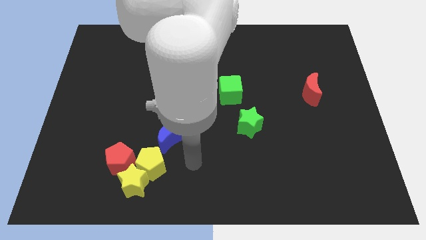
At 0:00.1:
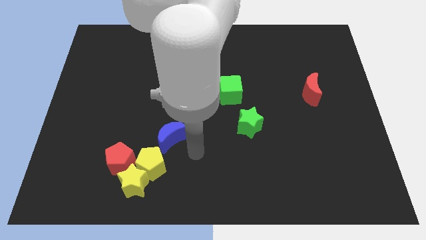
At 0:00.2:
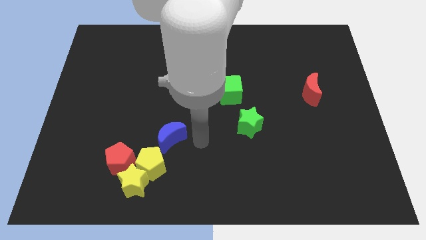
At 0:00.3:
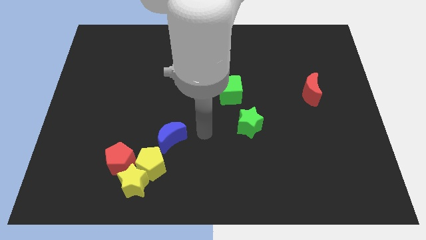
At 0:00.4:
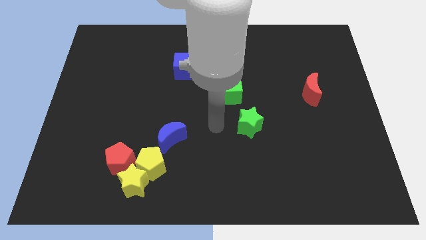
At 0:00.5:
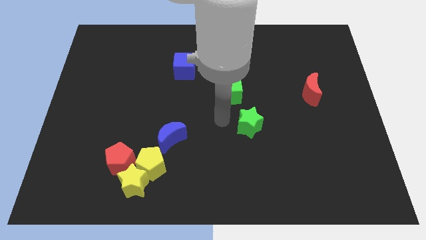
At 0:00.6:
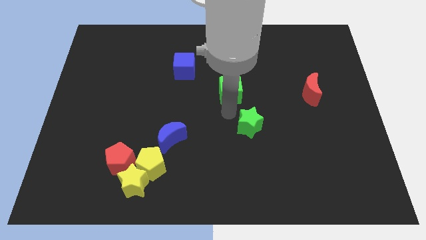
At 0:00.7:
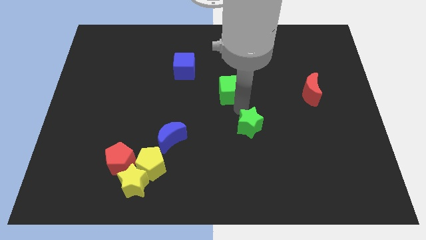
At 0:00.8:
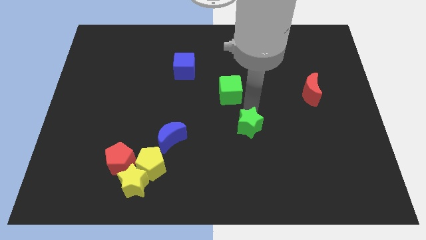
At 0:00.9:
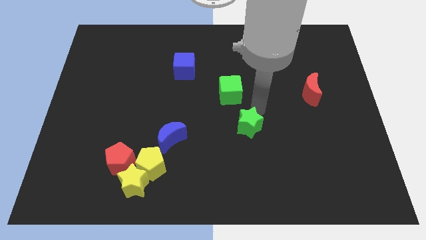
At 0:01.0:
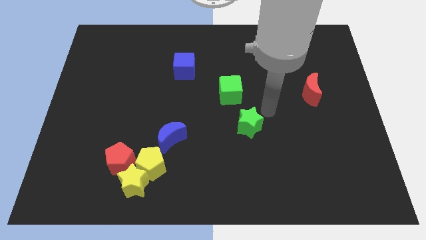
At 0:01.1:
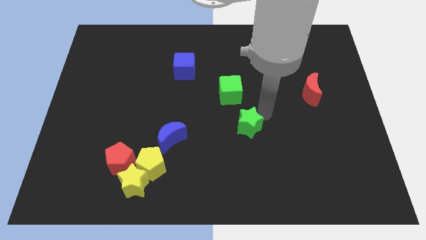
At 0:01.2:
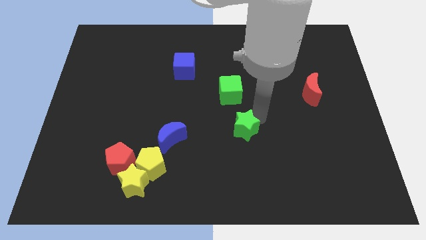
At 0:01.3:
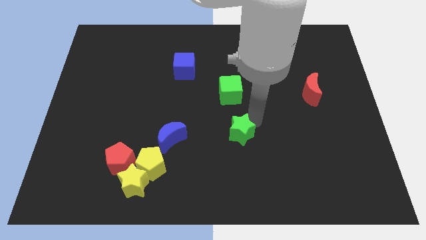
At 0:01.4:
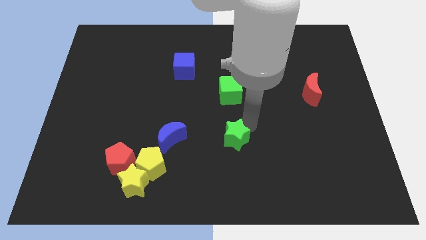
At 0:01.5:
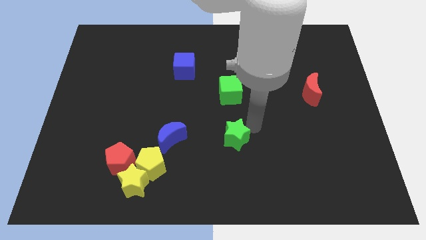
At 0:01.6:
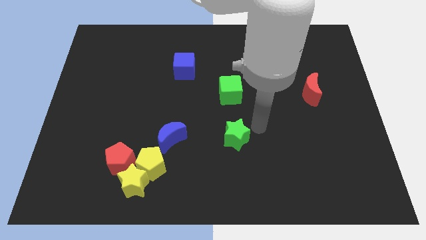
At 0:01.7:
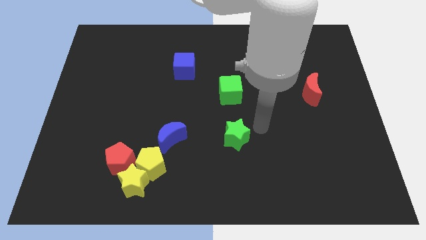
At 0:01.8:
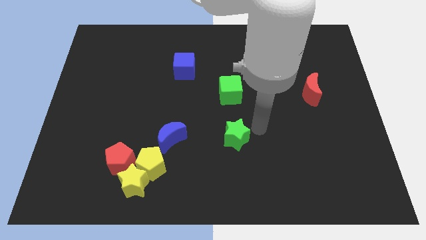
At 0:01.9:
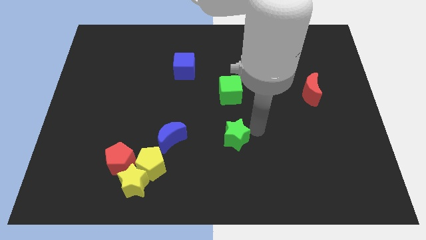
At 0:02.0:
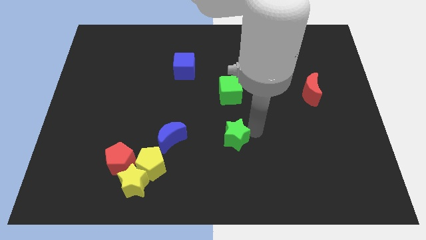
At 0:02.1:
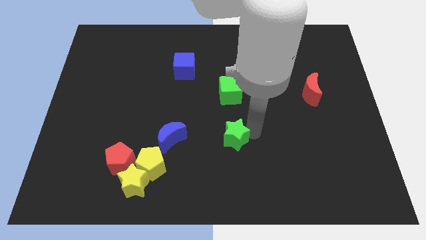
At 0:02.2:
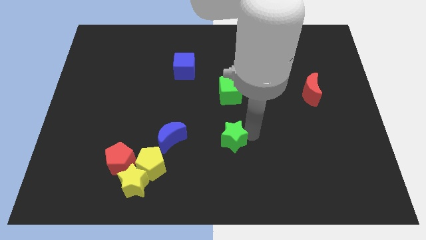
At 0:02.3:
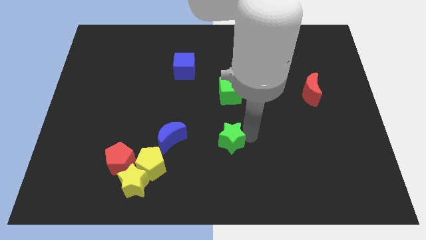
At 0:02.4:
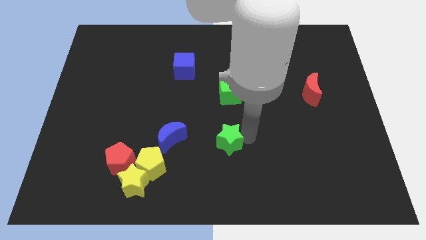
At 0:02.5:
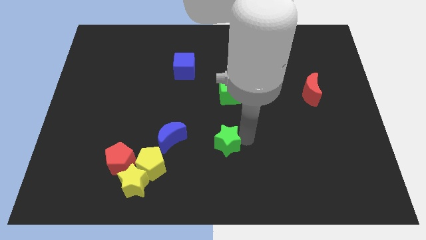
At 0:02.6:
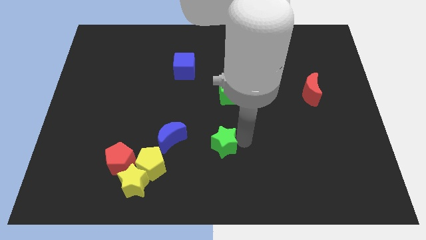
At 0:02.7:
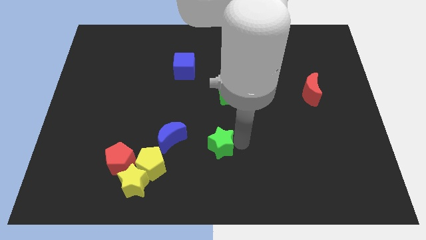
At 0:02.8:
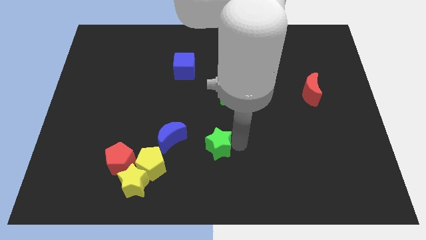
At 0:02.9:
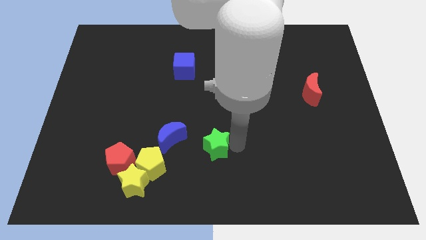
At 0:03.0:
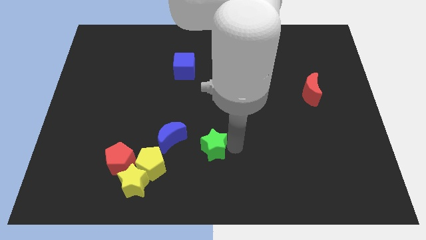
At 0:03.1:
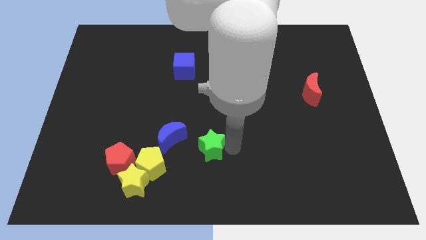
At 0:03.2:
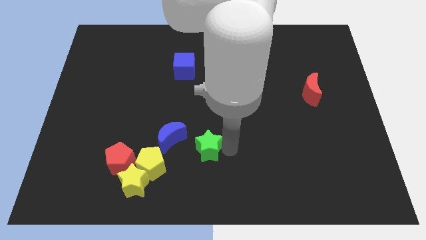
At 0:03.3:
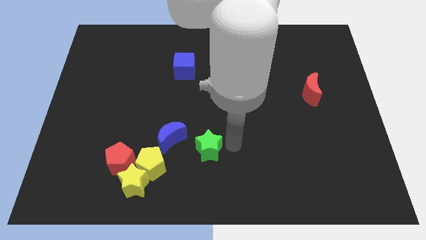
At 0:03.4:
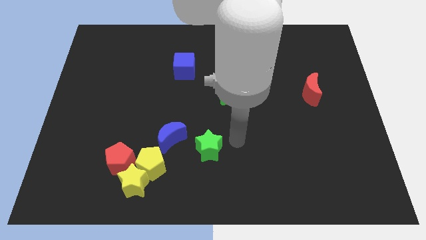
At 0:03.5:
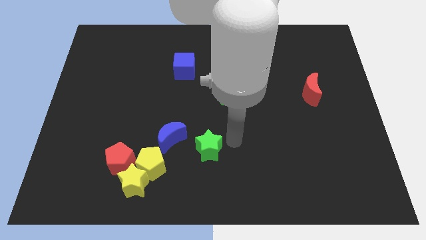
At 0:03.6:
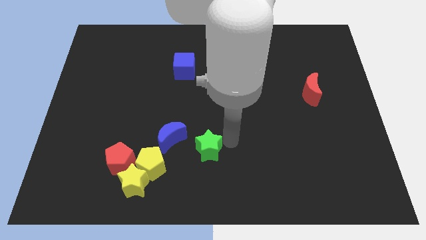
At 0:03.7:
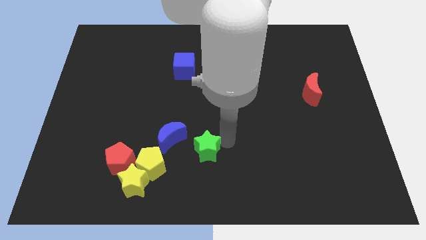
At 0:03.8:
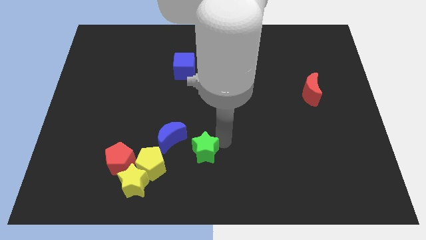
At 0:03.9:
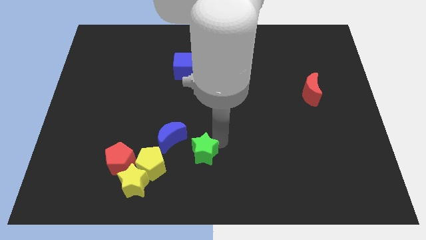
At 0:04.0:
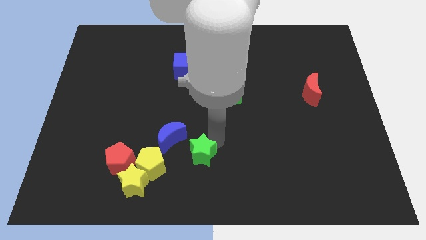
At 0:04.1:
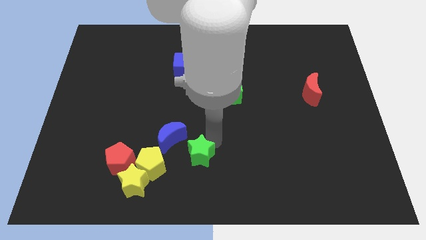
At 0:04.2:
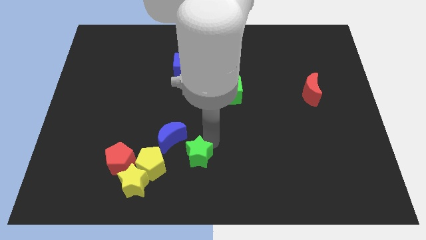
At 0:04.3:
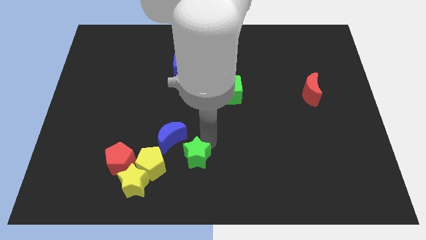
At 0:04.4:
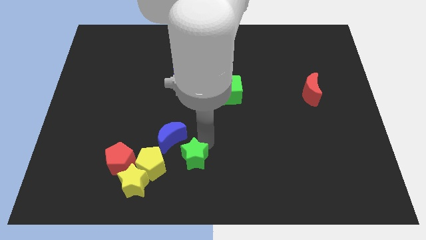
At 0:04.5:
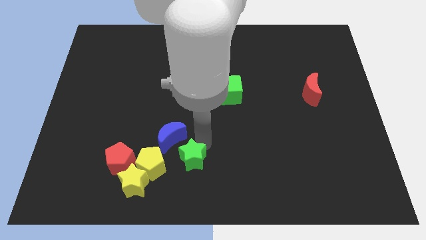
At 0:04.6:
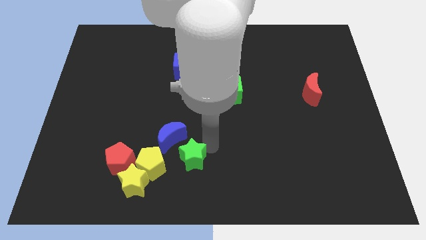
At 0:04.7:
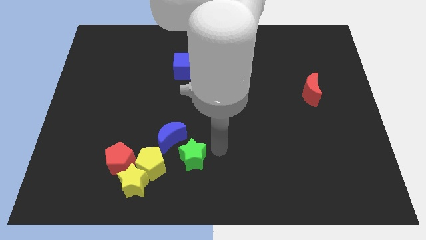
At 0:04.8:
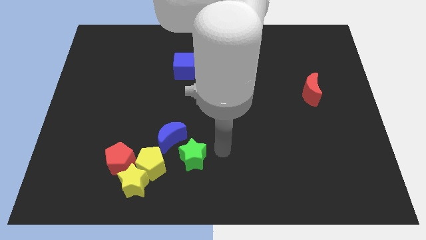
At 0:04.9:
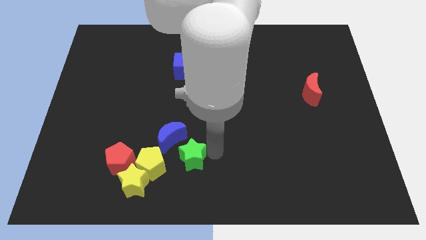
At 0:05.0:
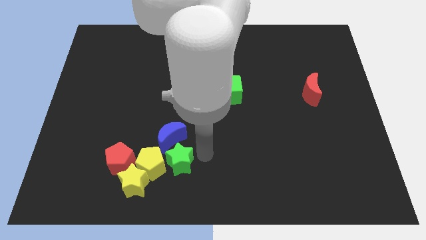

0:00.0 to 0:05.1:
put the green star close to the yellow pentagon

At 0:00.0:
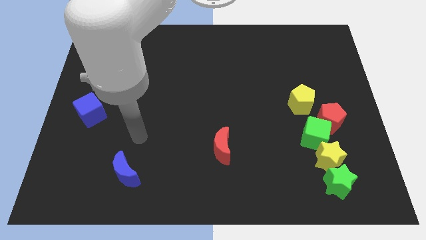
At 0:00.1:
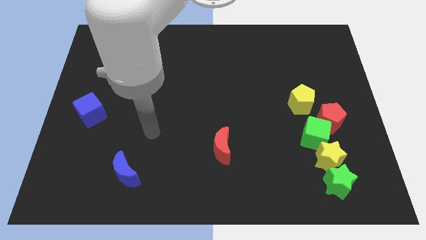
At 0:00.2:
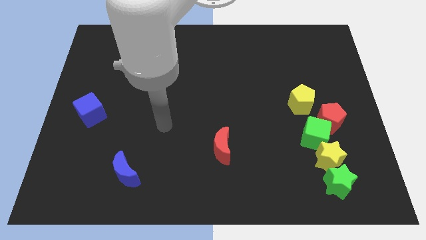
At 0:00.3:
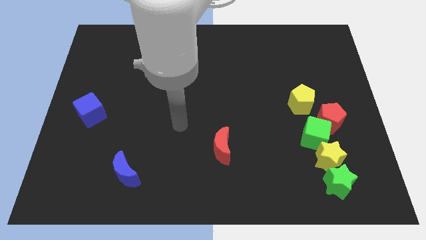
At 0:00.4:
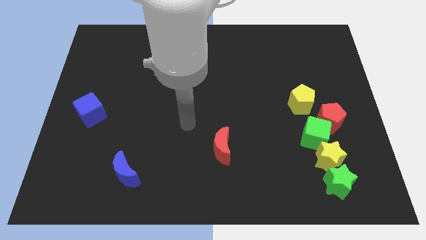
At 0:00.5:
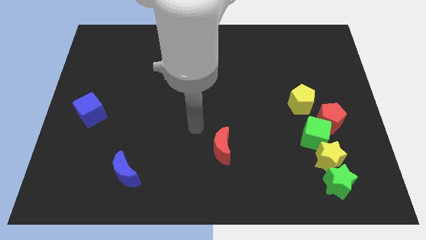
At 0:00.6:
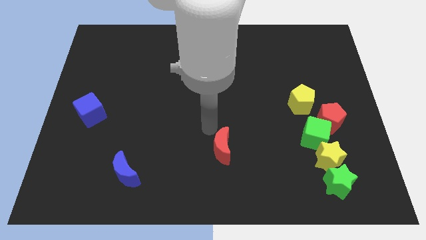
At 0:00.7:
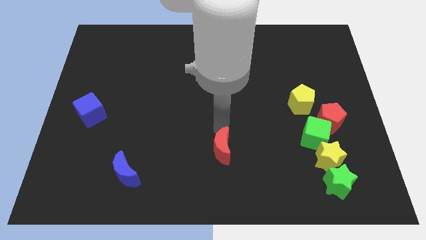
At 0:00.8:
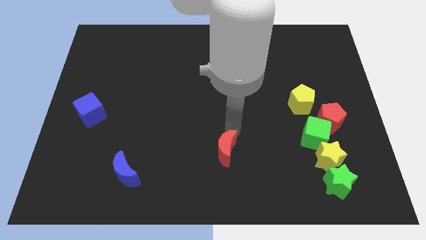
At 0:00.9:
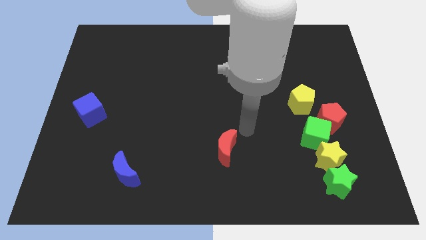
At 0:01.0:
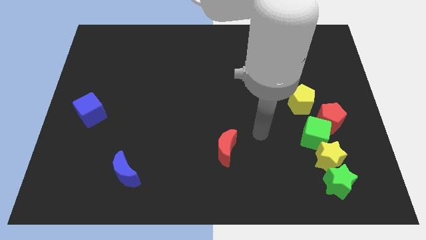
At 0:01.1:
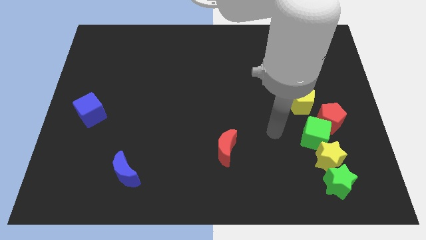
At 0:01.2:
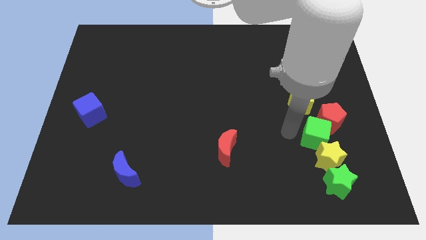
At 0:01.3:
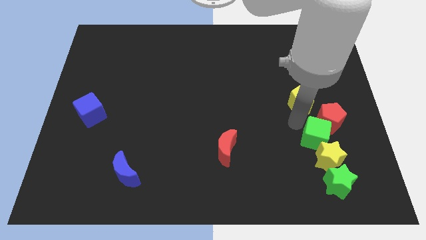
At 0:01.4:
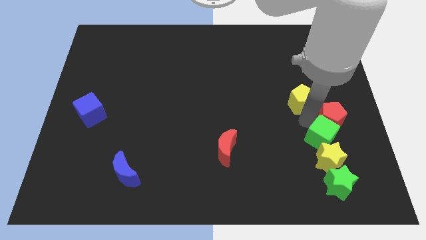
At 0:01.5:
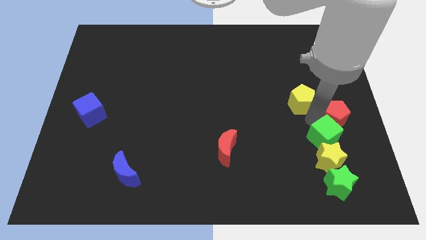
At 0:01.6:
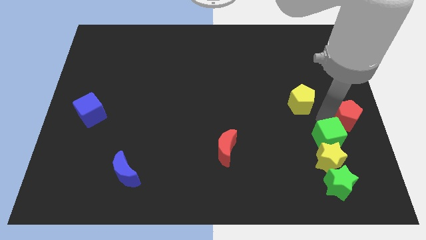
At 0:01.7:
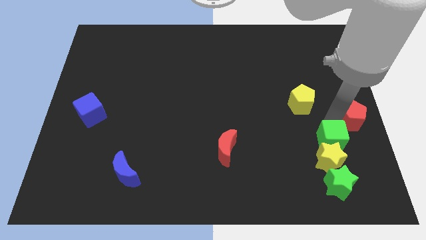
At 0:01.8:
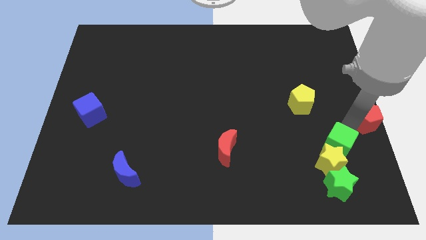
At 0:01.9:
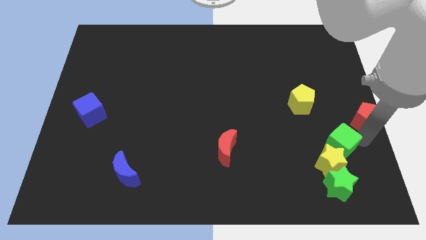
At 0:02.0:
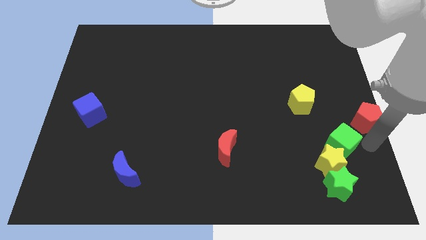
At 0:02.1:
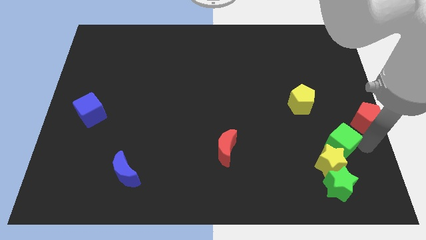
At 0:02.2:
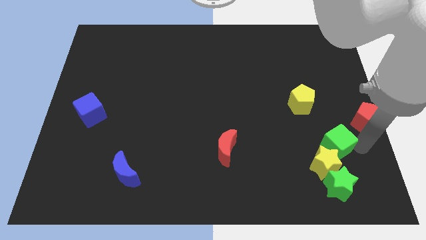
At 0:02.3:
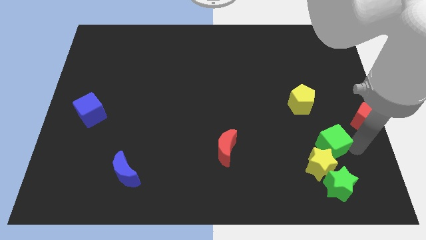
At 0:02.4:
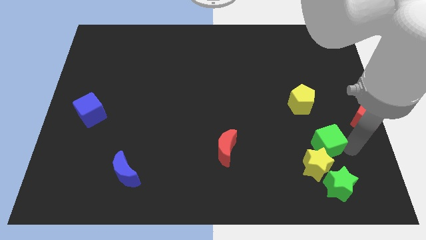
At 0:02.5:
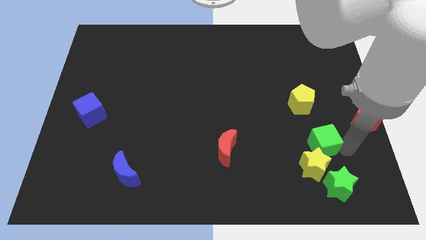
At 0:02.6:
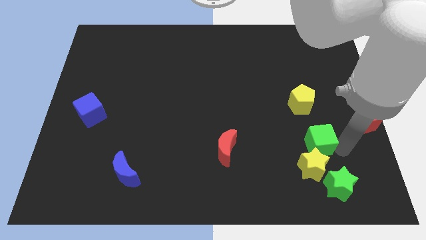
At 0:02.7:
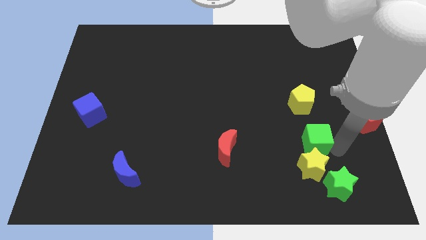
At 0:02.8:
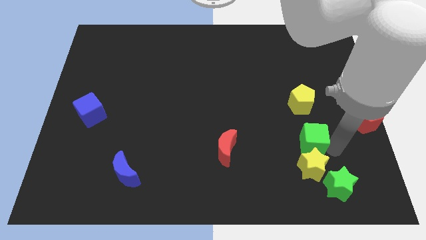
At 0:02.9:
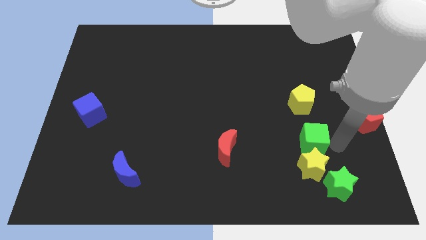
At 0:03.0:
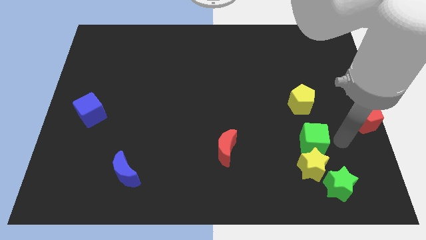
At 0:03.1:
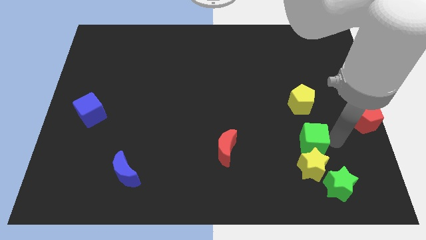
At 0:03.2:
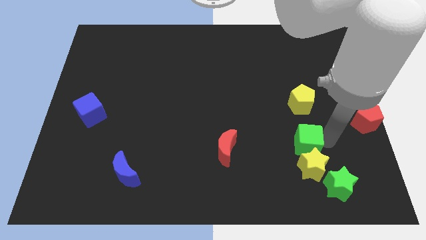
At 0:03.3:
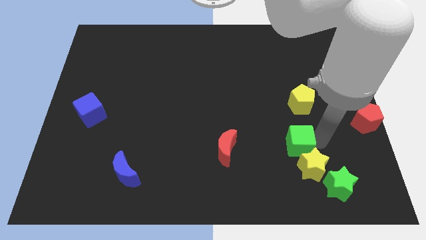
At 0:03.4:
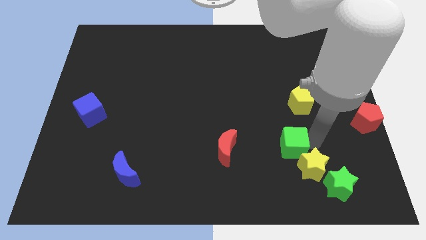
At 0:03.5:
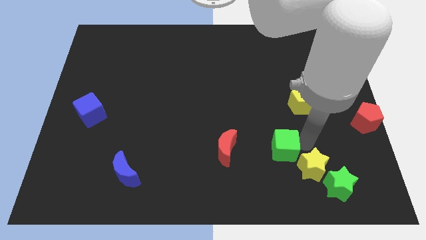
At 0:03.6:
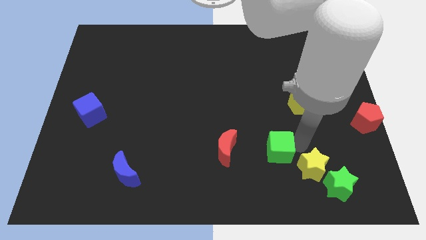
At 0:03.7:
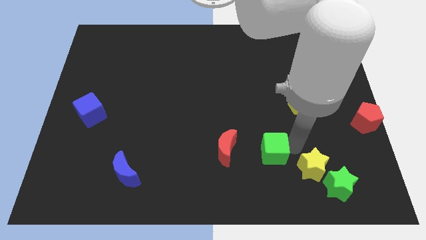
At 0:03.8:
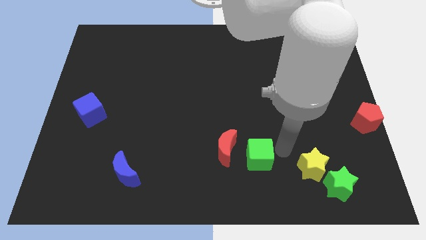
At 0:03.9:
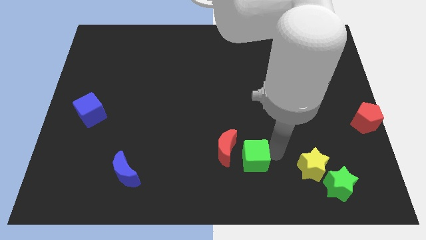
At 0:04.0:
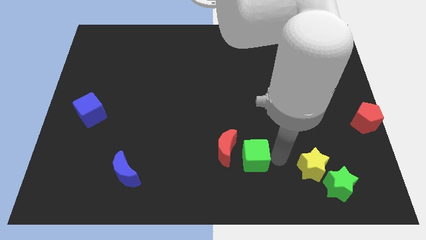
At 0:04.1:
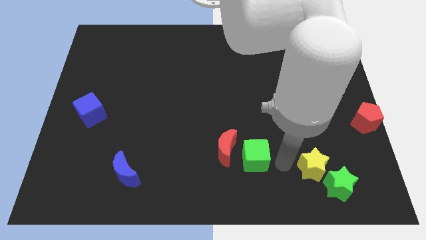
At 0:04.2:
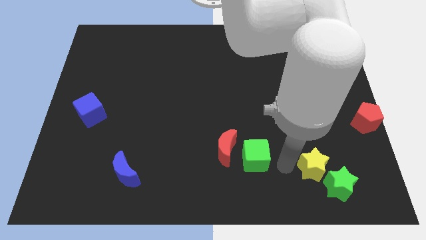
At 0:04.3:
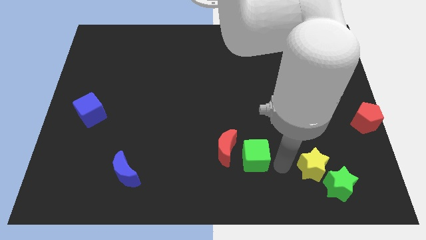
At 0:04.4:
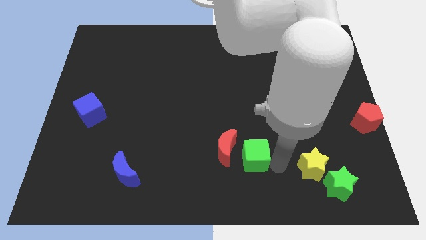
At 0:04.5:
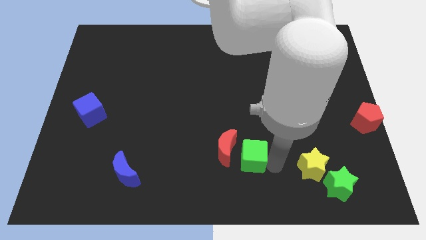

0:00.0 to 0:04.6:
move the green cube to the red moon
